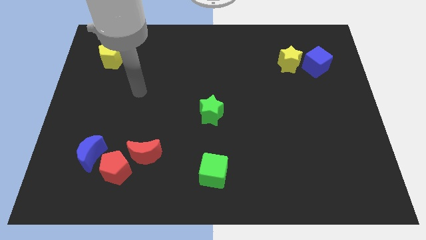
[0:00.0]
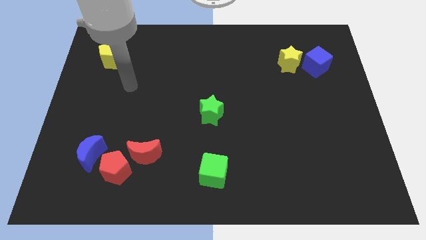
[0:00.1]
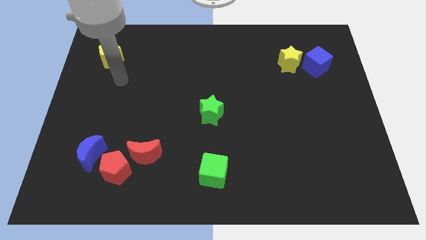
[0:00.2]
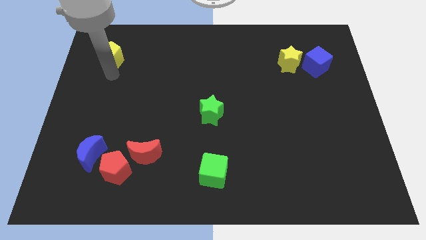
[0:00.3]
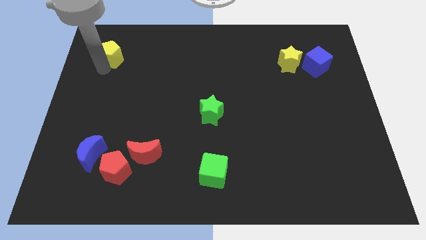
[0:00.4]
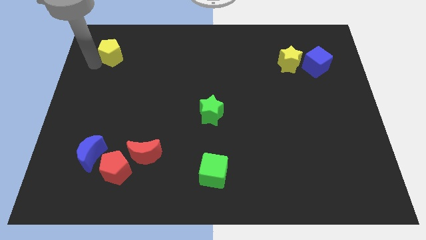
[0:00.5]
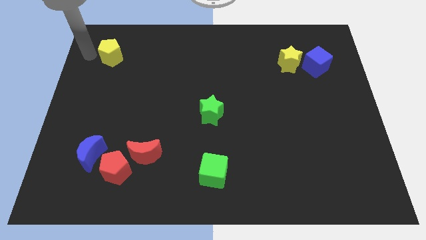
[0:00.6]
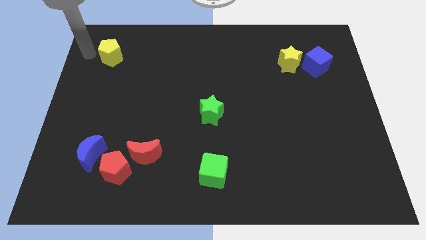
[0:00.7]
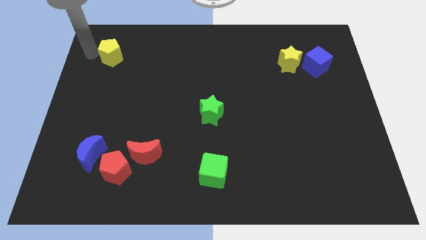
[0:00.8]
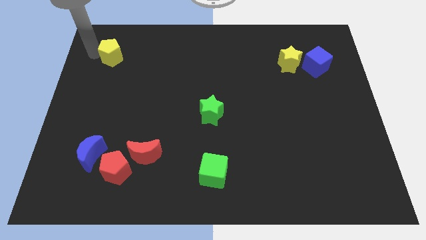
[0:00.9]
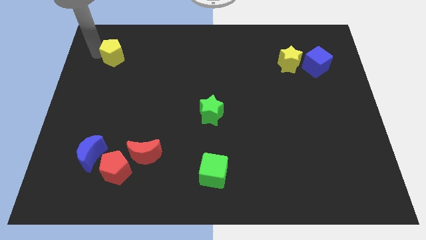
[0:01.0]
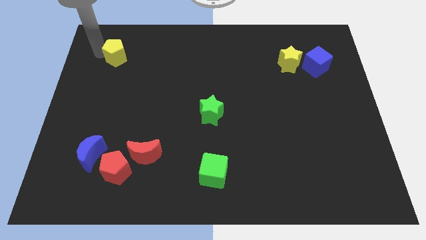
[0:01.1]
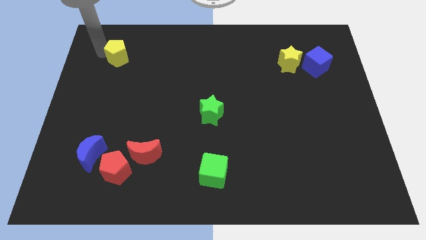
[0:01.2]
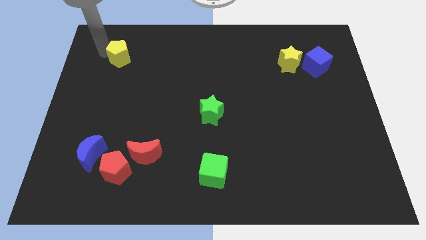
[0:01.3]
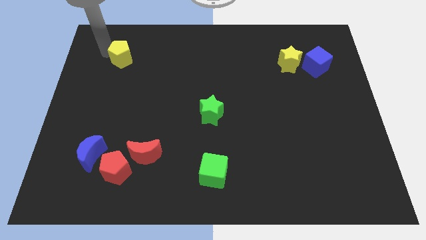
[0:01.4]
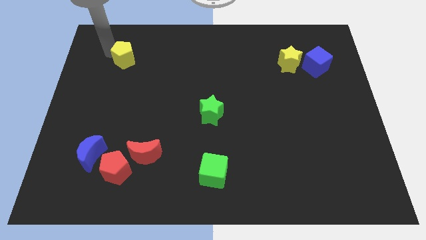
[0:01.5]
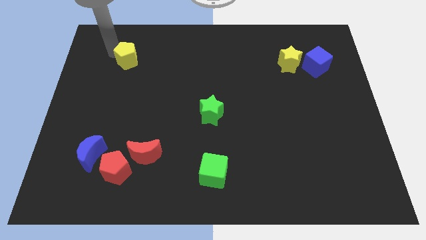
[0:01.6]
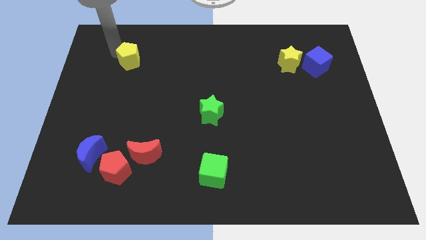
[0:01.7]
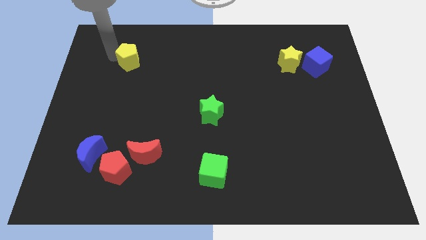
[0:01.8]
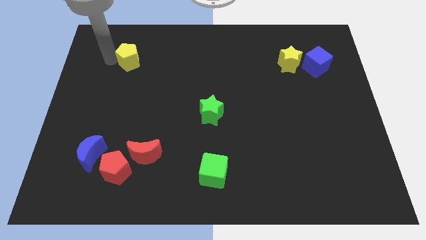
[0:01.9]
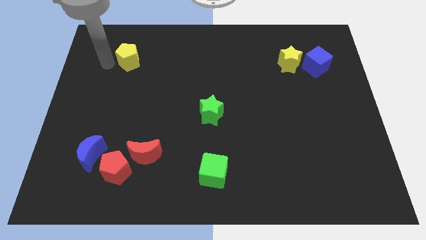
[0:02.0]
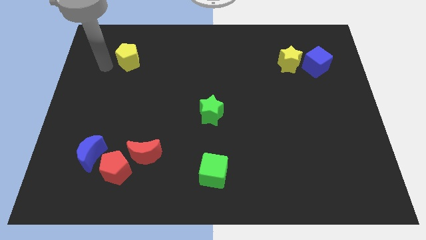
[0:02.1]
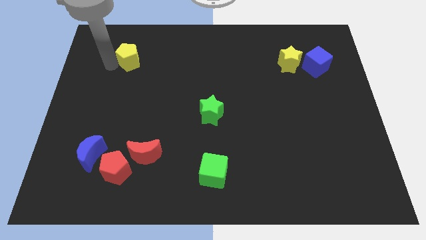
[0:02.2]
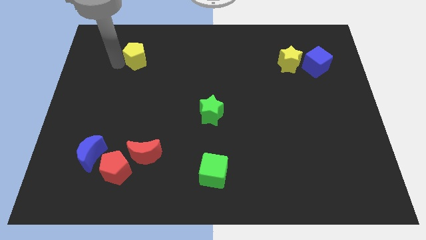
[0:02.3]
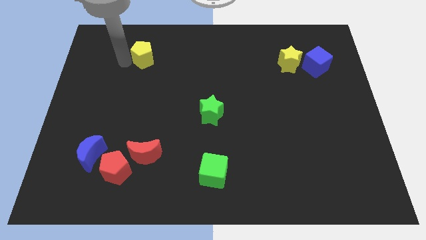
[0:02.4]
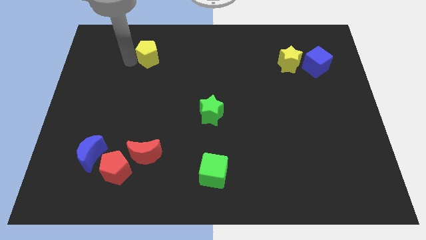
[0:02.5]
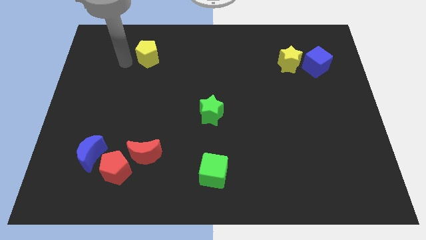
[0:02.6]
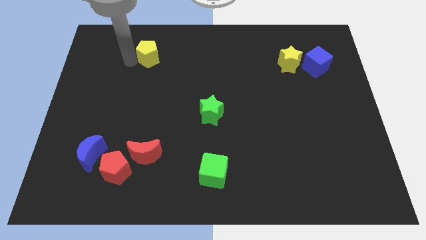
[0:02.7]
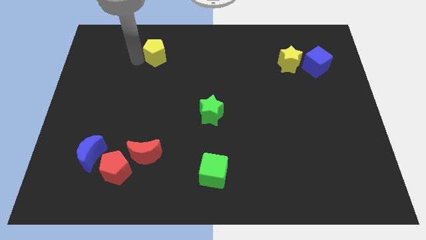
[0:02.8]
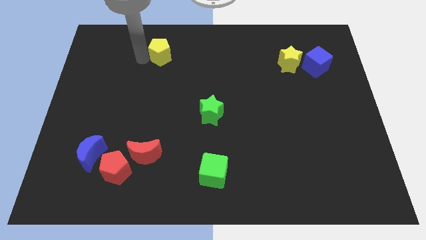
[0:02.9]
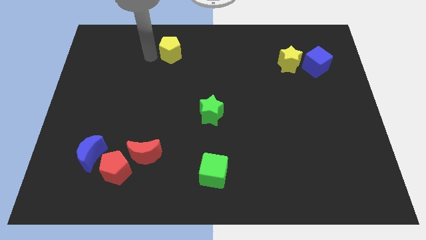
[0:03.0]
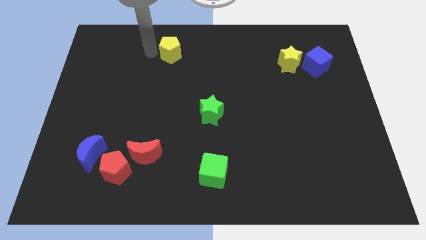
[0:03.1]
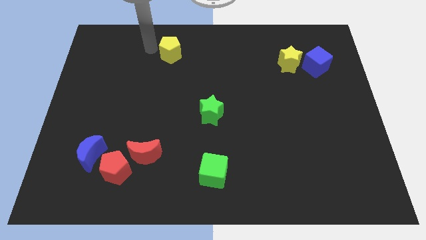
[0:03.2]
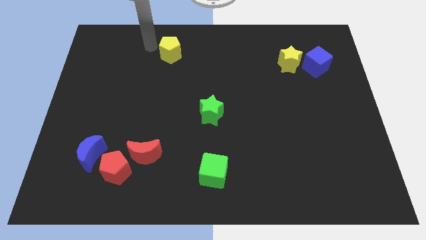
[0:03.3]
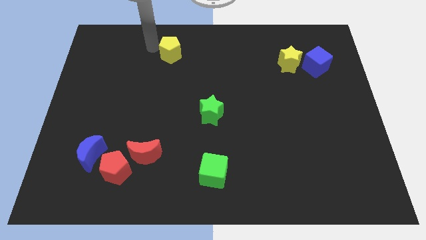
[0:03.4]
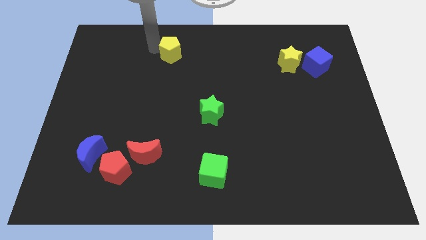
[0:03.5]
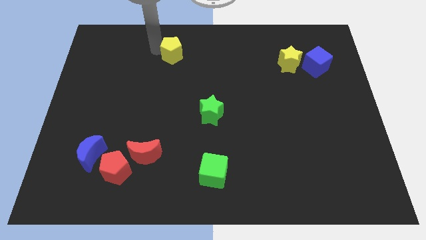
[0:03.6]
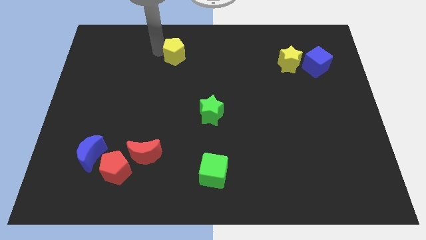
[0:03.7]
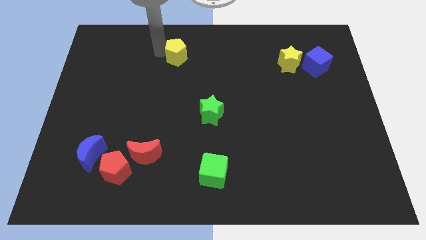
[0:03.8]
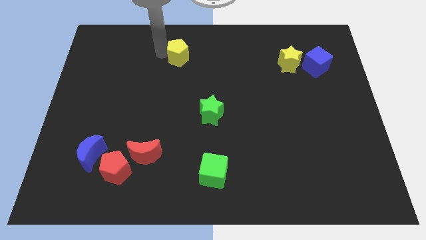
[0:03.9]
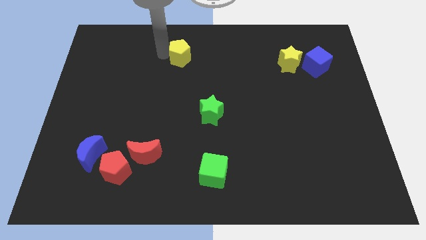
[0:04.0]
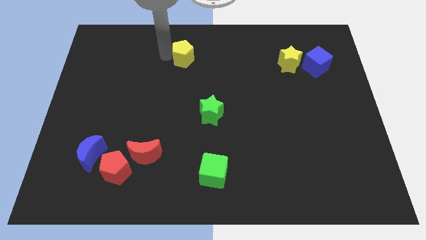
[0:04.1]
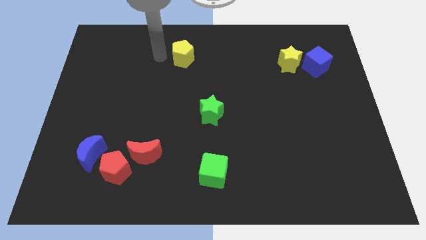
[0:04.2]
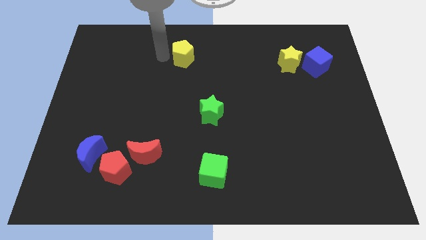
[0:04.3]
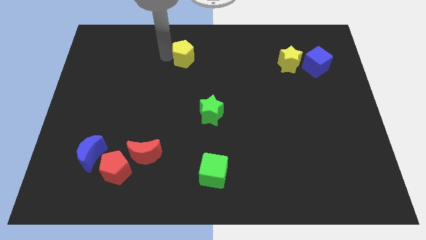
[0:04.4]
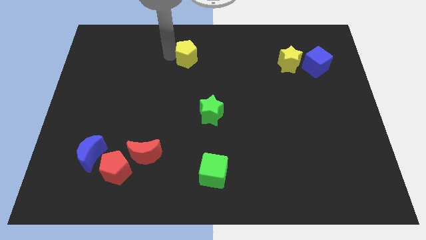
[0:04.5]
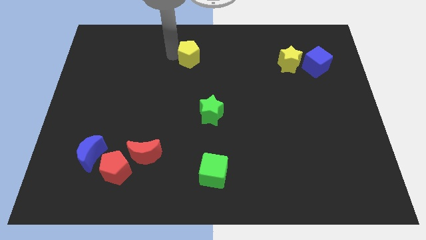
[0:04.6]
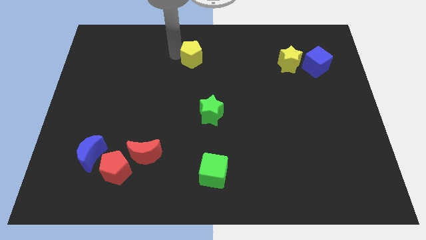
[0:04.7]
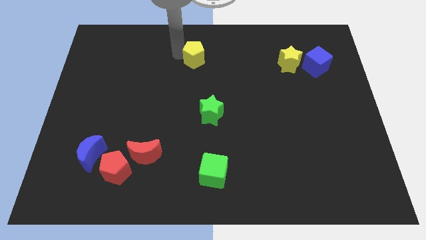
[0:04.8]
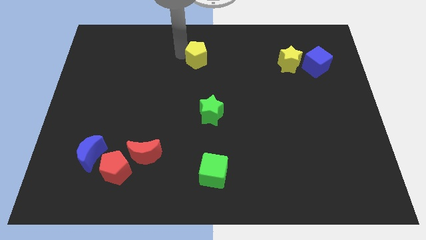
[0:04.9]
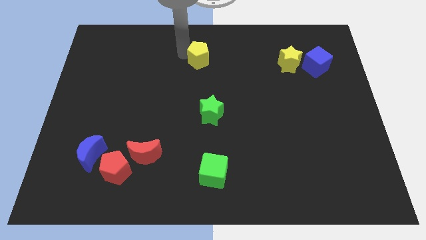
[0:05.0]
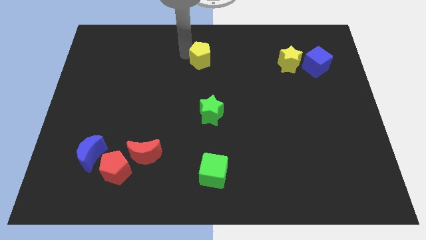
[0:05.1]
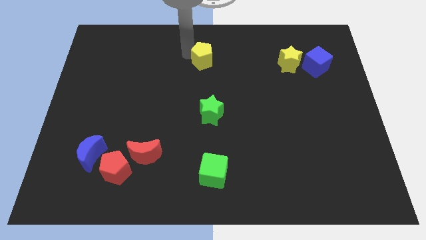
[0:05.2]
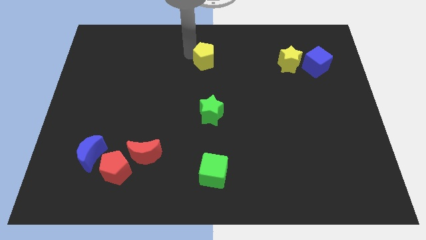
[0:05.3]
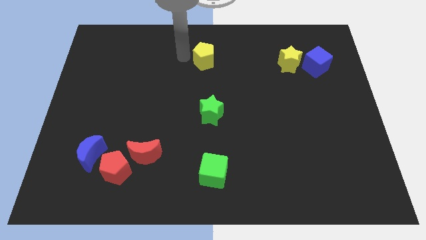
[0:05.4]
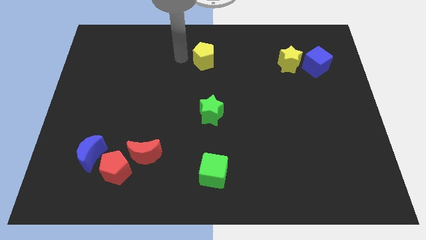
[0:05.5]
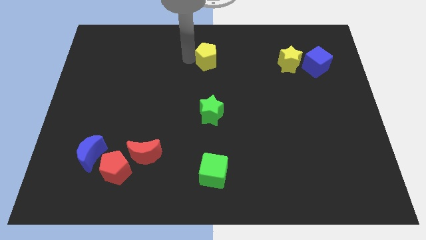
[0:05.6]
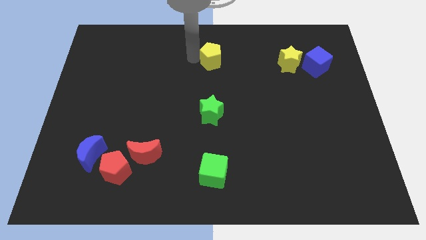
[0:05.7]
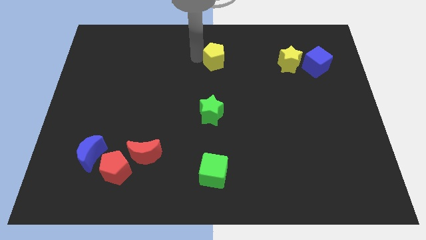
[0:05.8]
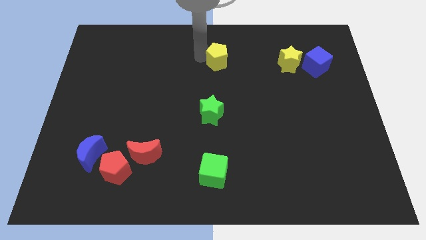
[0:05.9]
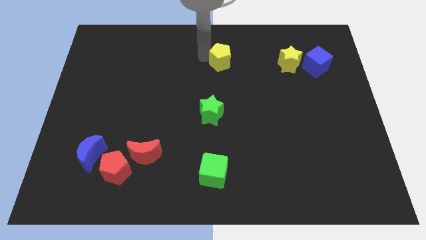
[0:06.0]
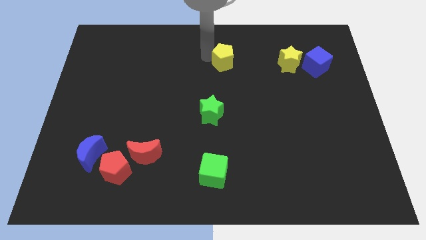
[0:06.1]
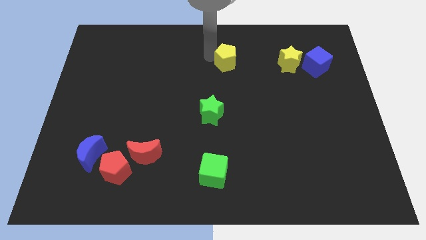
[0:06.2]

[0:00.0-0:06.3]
put the yellow pentagon just left of the yellow star

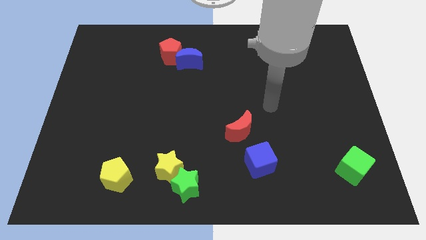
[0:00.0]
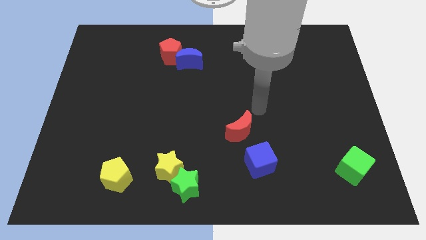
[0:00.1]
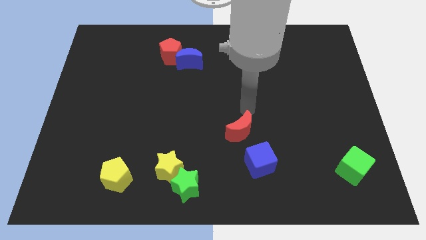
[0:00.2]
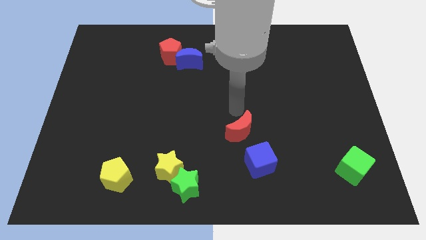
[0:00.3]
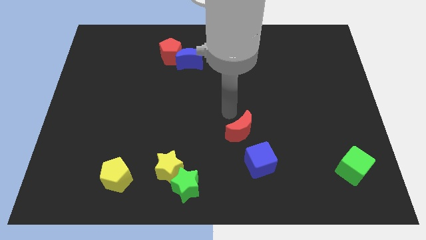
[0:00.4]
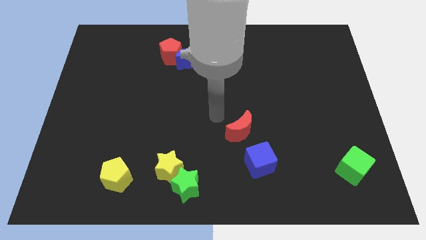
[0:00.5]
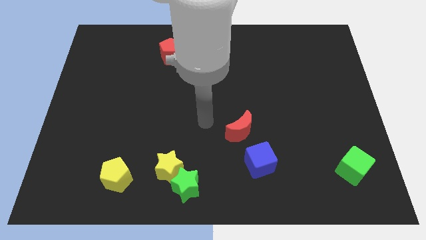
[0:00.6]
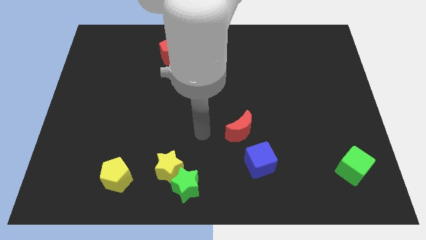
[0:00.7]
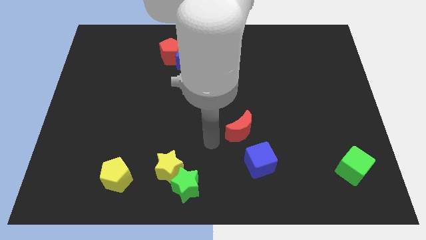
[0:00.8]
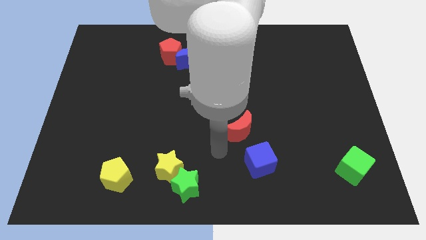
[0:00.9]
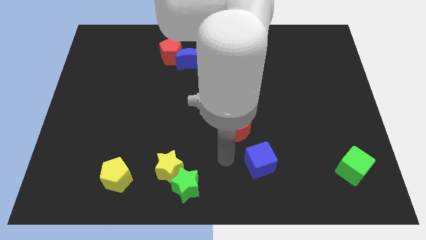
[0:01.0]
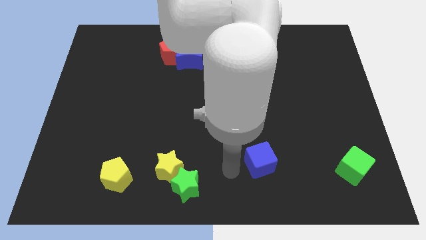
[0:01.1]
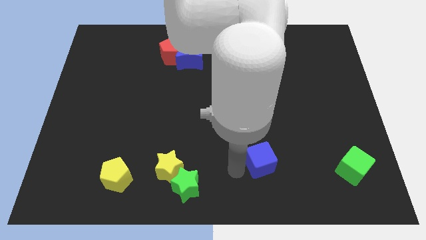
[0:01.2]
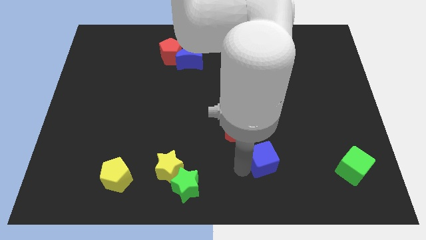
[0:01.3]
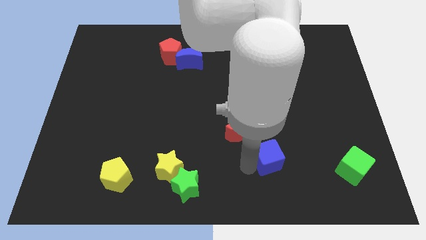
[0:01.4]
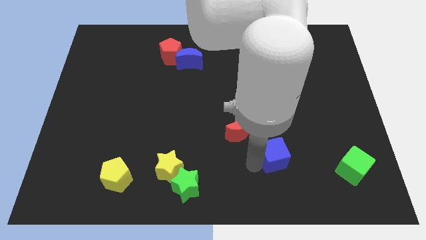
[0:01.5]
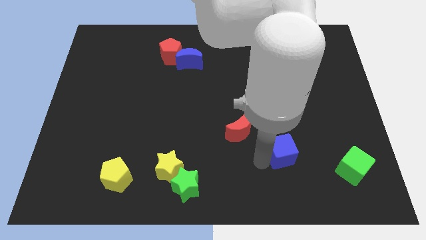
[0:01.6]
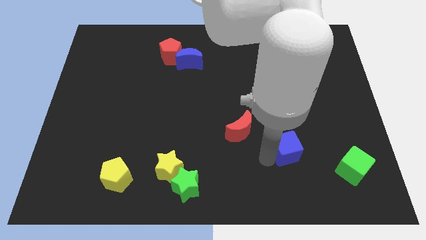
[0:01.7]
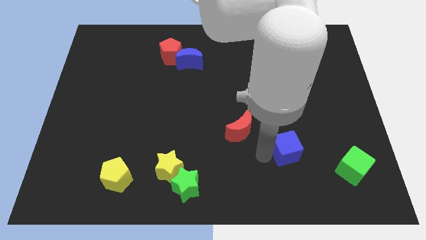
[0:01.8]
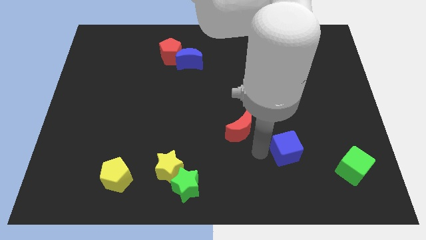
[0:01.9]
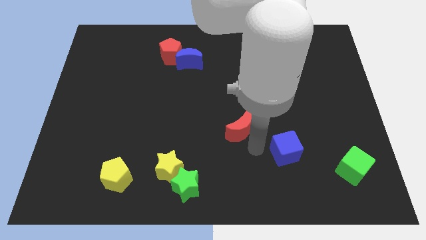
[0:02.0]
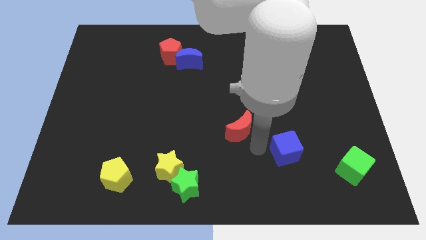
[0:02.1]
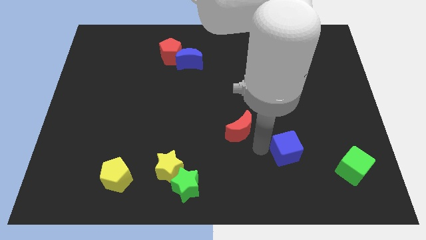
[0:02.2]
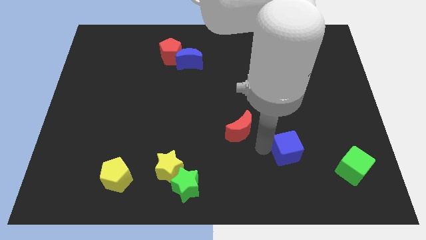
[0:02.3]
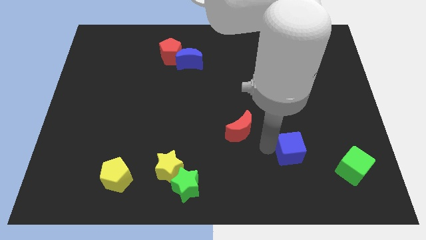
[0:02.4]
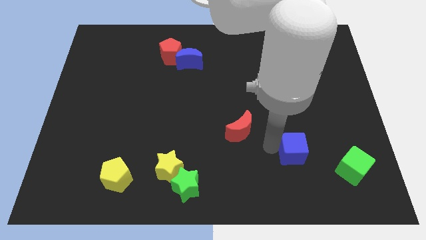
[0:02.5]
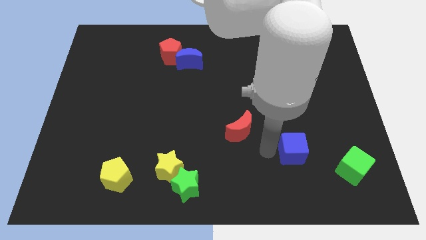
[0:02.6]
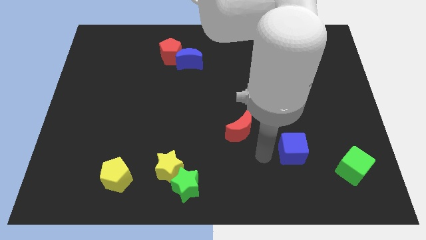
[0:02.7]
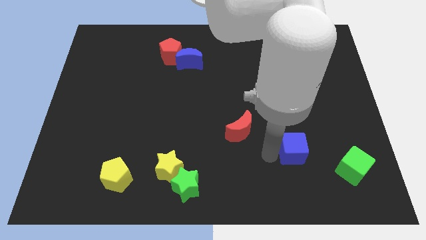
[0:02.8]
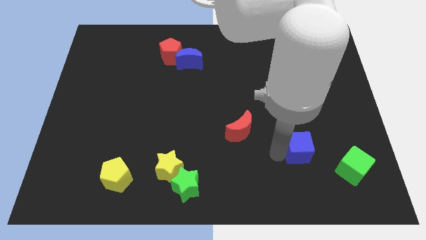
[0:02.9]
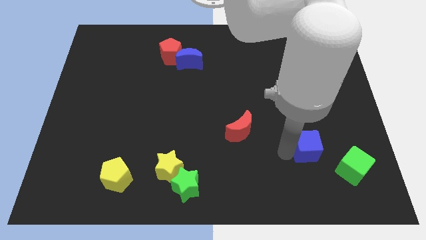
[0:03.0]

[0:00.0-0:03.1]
push the blue cube to the top left side of the green cube
